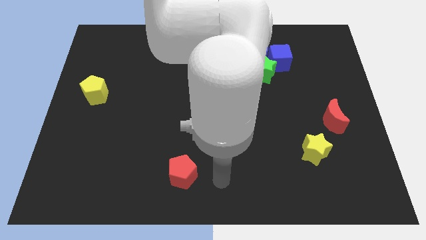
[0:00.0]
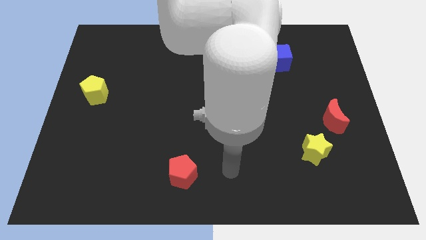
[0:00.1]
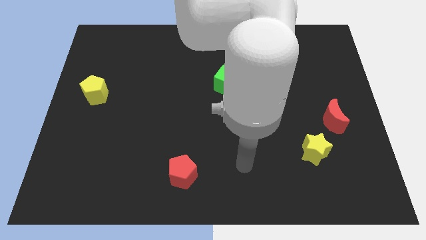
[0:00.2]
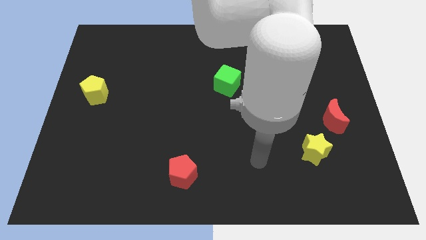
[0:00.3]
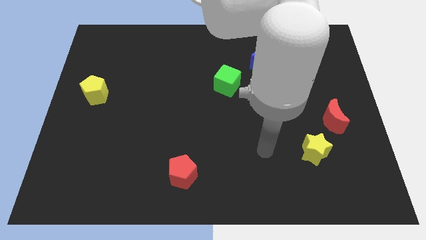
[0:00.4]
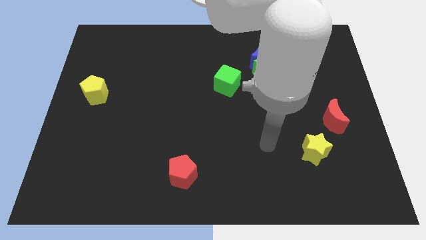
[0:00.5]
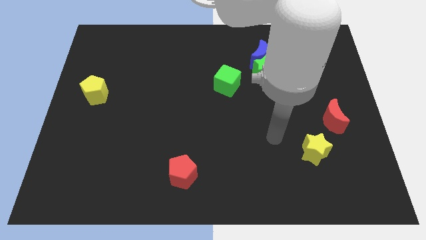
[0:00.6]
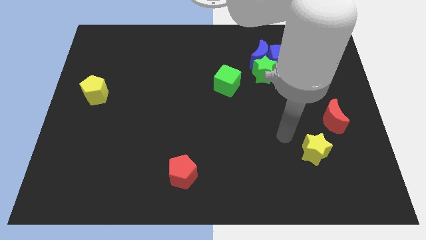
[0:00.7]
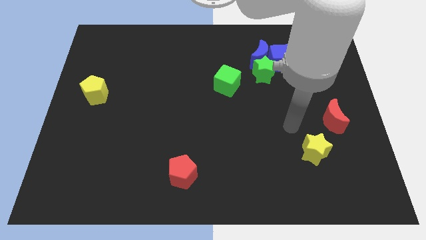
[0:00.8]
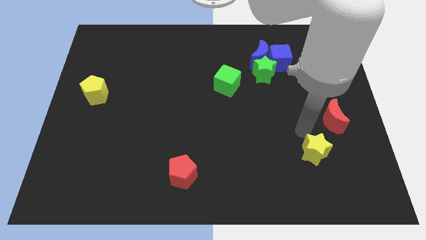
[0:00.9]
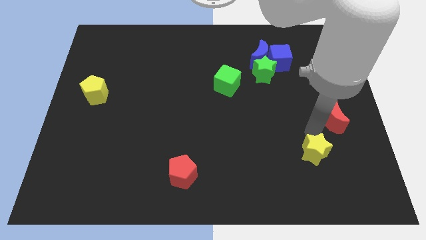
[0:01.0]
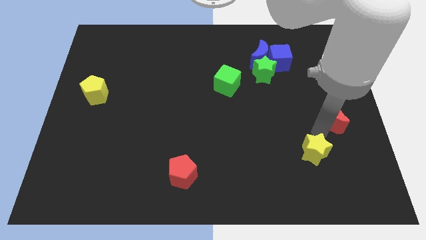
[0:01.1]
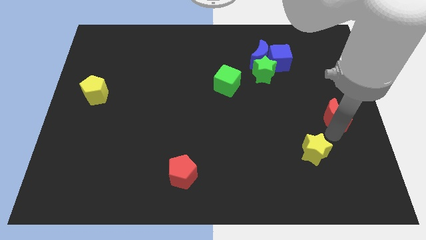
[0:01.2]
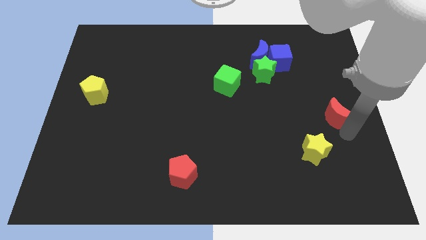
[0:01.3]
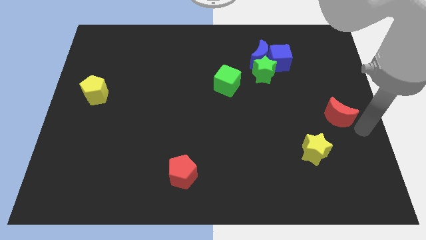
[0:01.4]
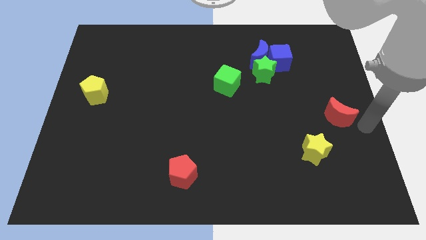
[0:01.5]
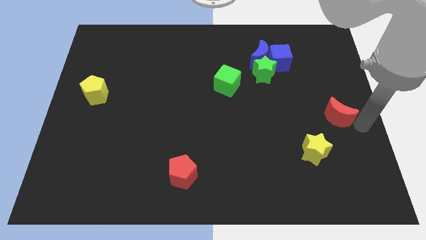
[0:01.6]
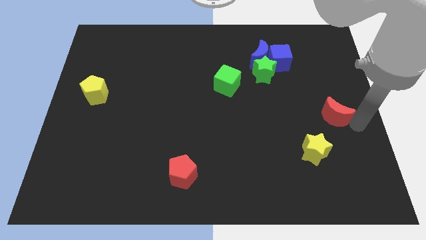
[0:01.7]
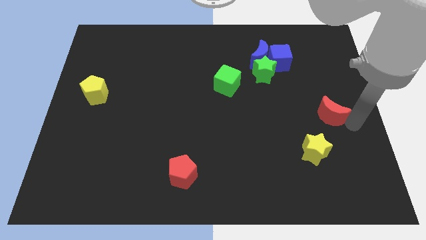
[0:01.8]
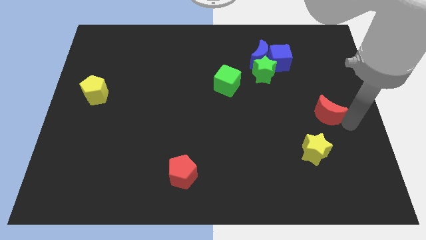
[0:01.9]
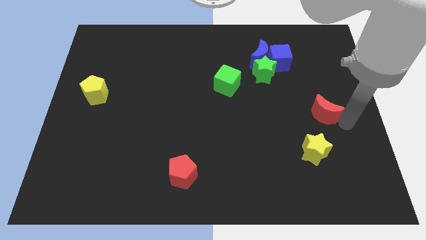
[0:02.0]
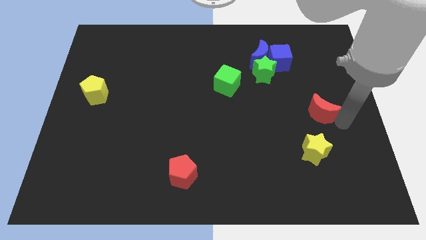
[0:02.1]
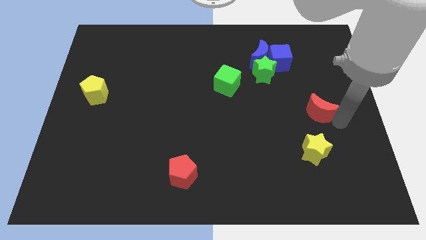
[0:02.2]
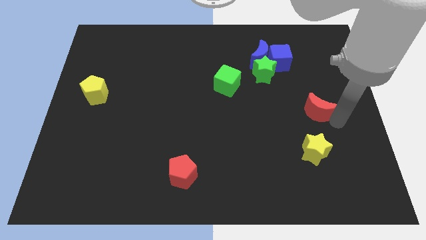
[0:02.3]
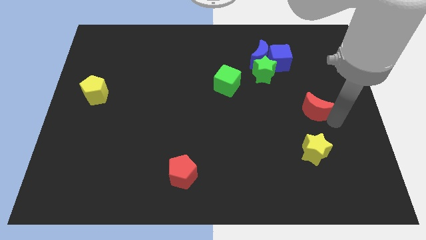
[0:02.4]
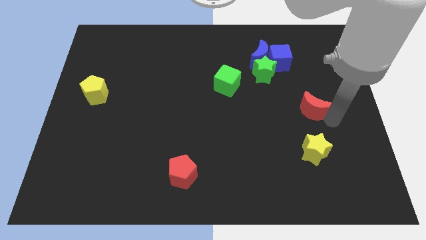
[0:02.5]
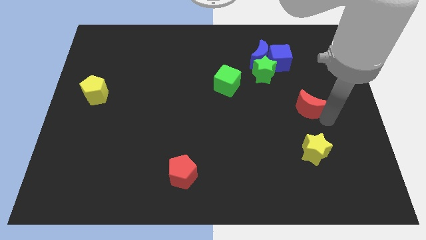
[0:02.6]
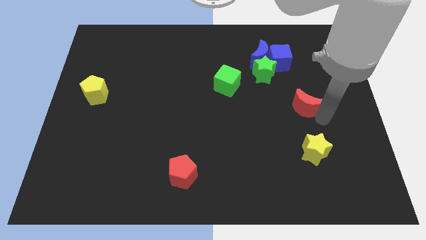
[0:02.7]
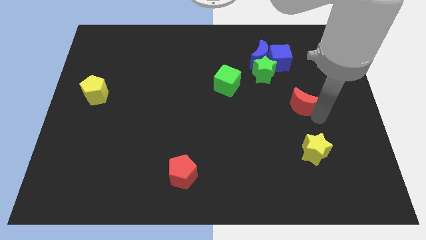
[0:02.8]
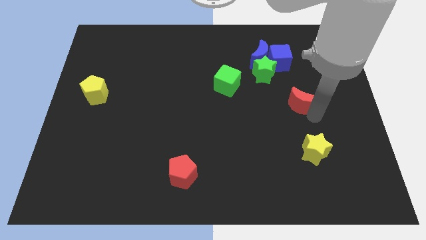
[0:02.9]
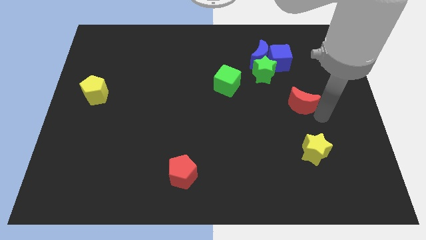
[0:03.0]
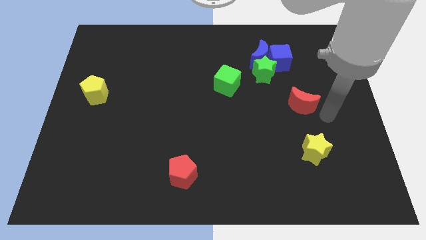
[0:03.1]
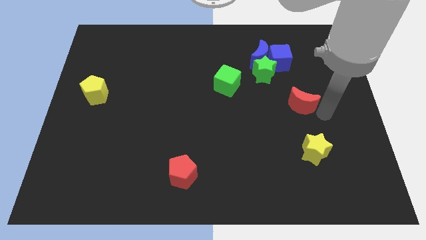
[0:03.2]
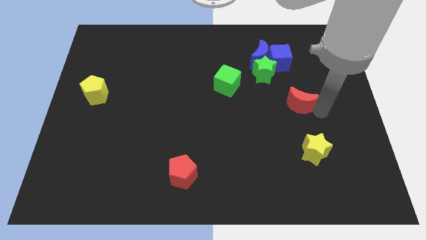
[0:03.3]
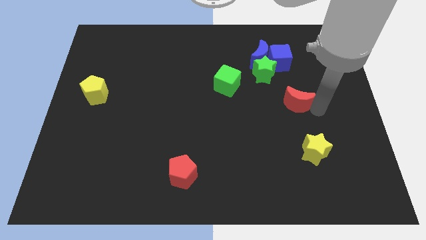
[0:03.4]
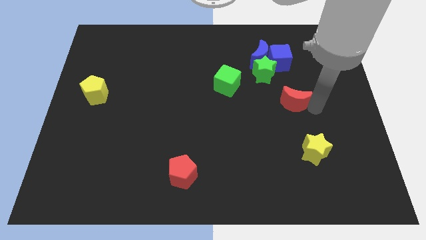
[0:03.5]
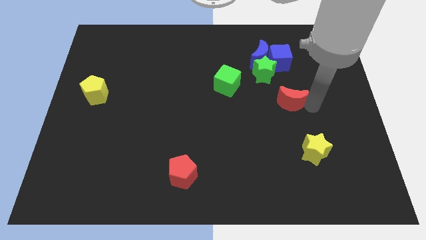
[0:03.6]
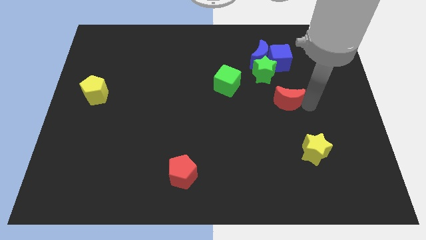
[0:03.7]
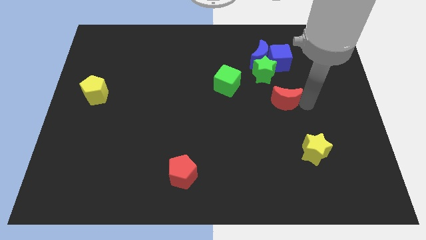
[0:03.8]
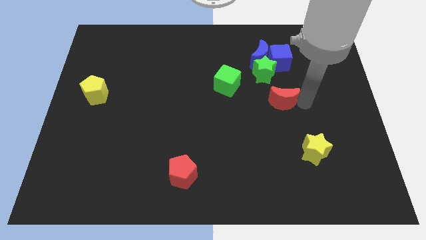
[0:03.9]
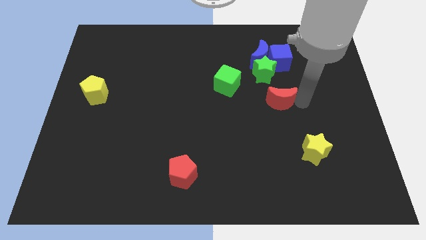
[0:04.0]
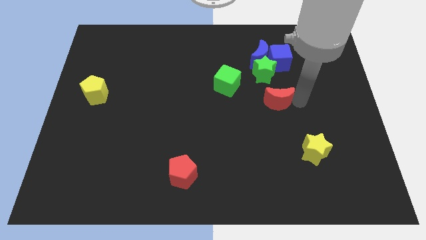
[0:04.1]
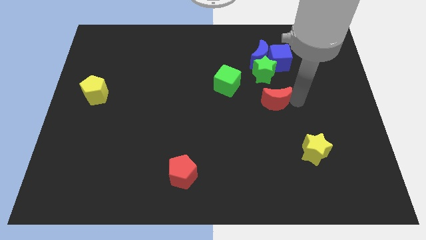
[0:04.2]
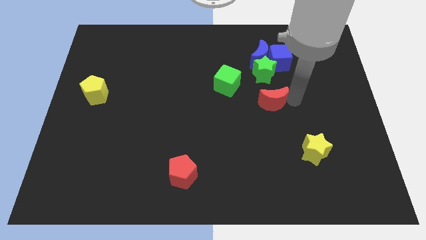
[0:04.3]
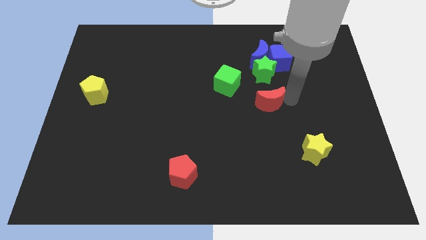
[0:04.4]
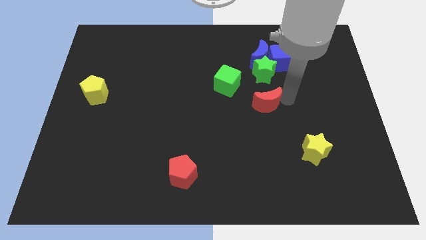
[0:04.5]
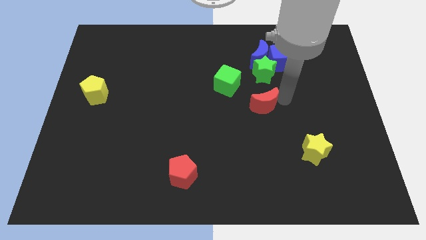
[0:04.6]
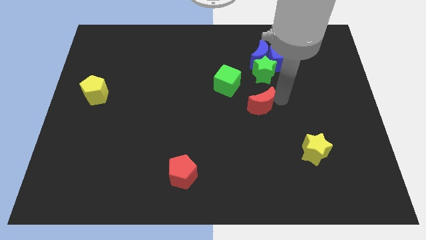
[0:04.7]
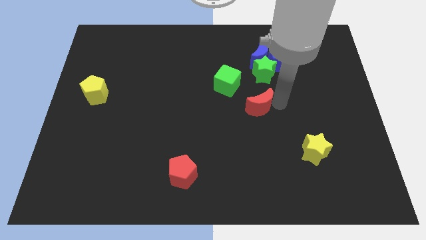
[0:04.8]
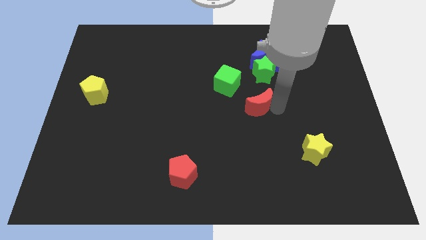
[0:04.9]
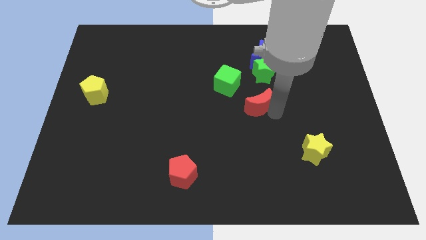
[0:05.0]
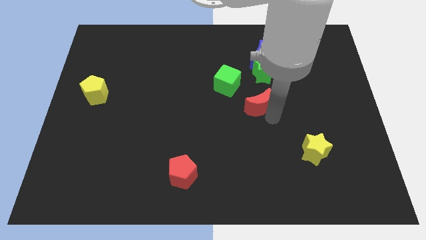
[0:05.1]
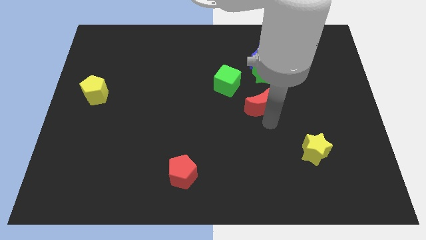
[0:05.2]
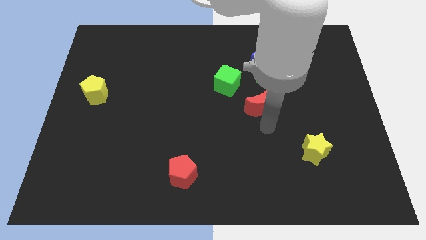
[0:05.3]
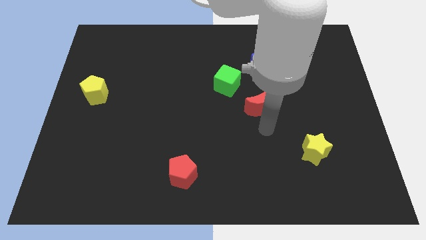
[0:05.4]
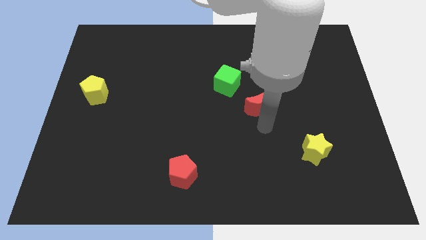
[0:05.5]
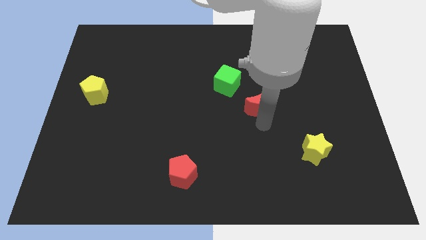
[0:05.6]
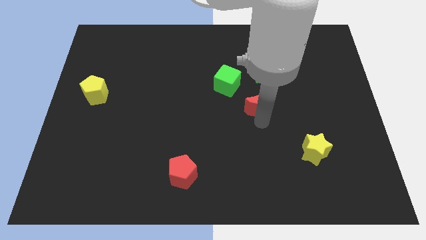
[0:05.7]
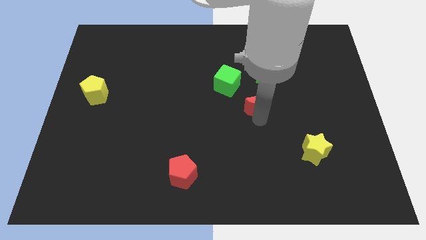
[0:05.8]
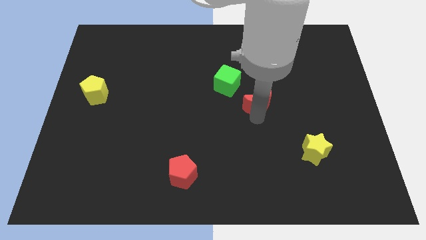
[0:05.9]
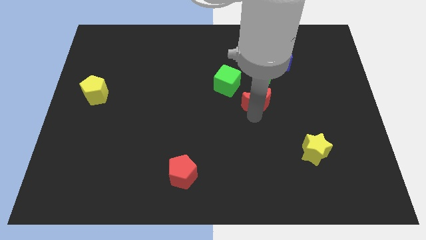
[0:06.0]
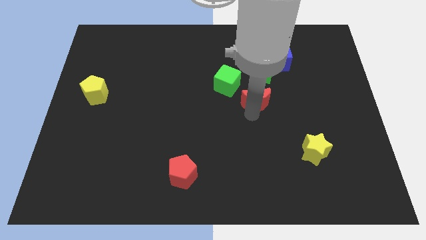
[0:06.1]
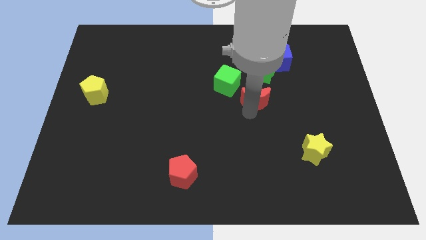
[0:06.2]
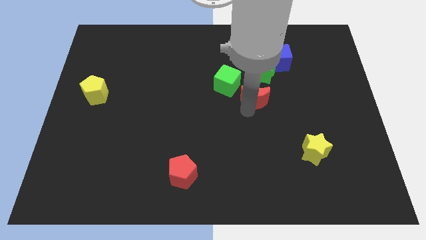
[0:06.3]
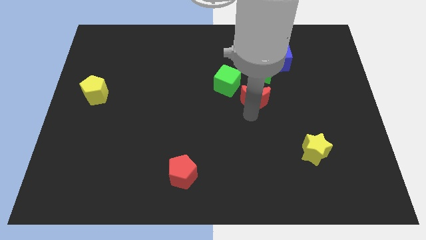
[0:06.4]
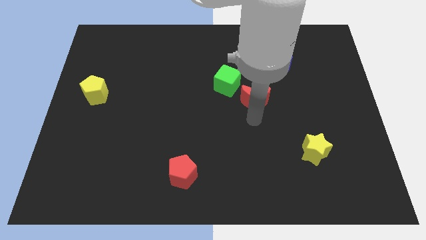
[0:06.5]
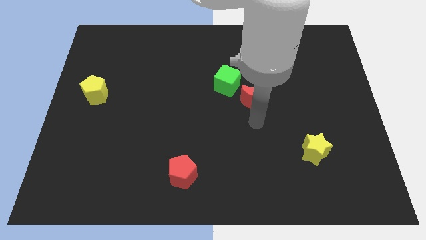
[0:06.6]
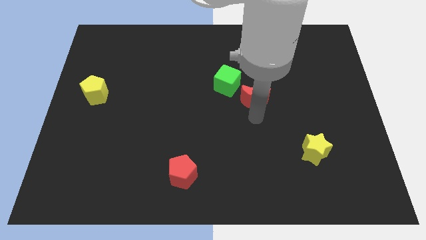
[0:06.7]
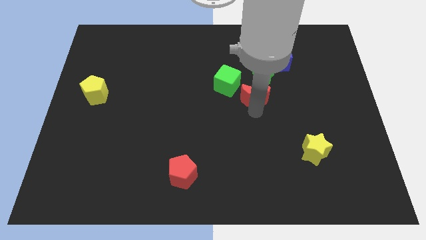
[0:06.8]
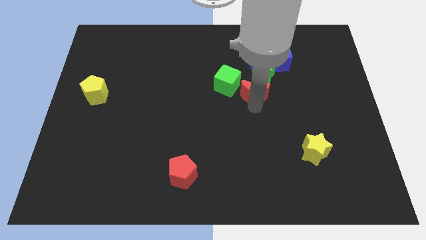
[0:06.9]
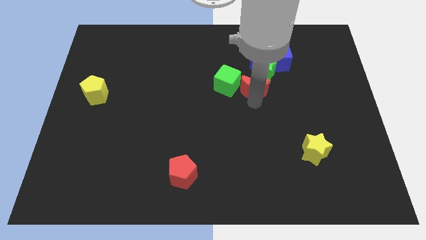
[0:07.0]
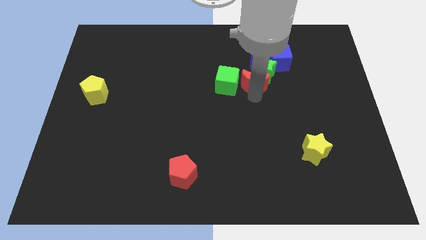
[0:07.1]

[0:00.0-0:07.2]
slide the red moon to the top right of the green cube
